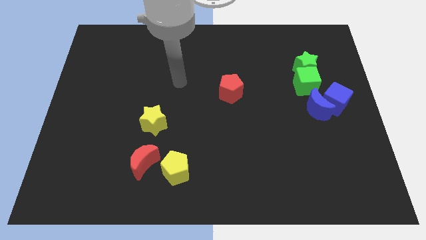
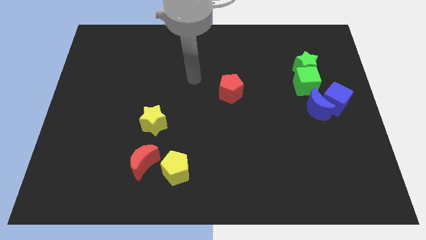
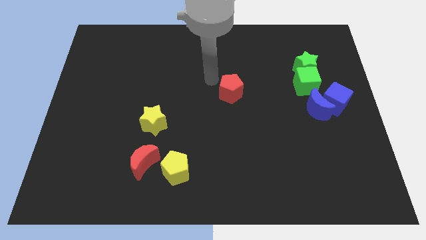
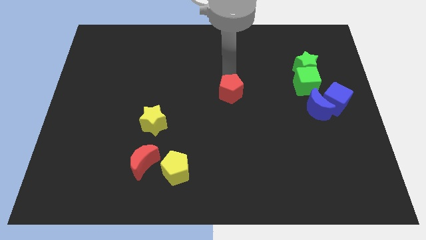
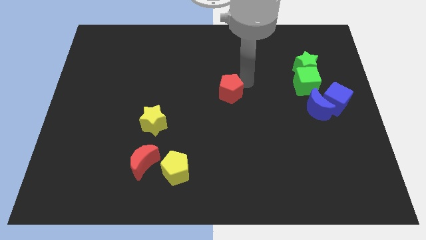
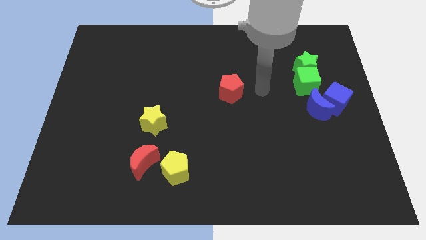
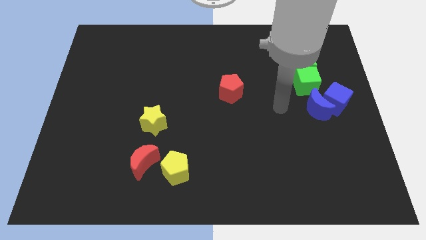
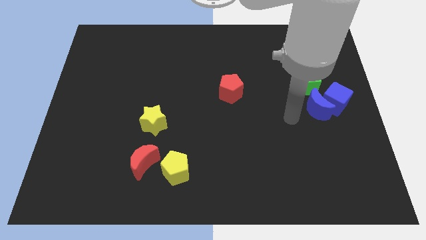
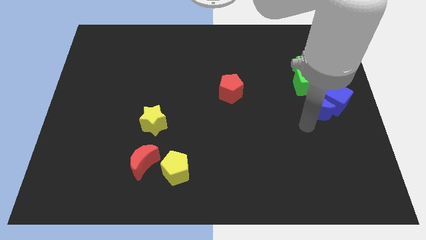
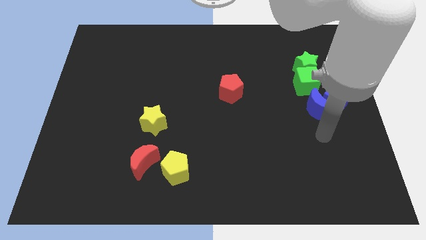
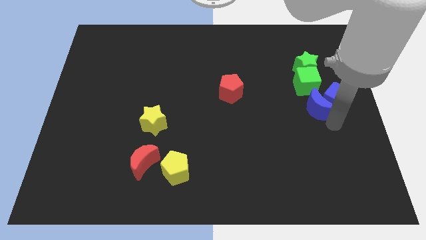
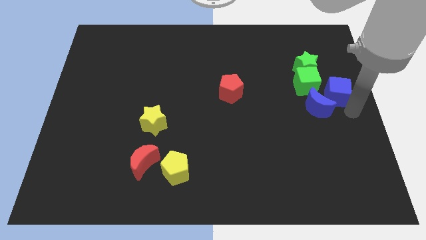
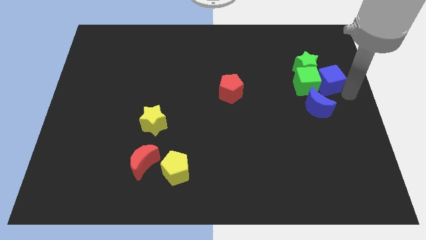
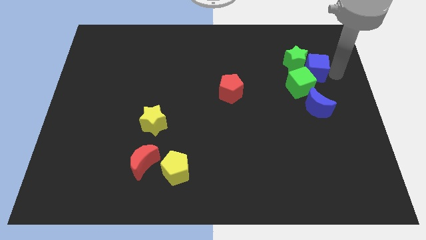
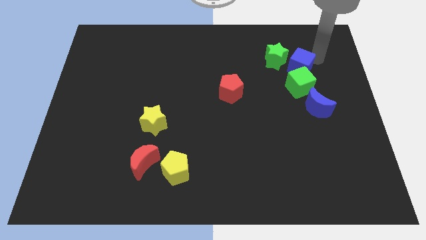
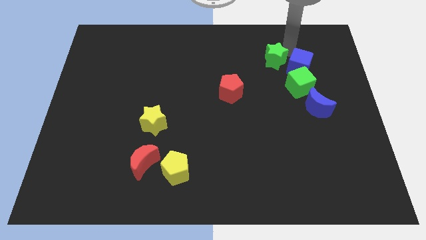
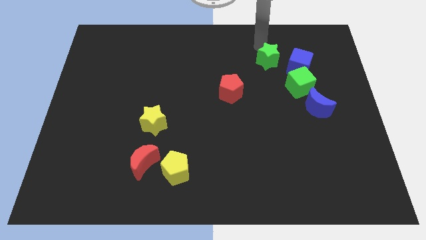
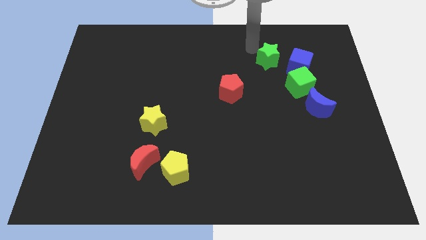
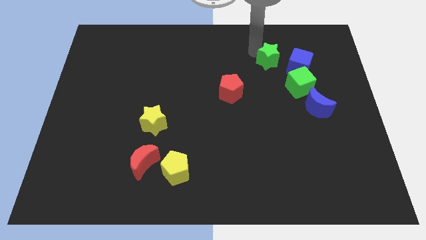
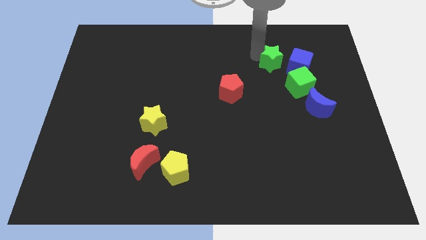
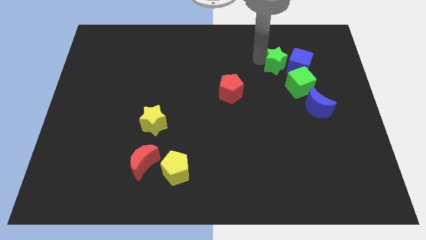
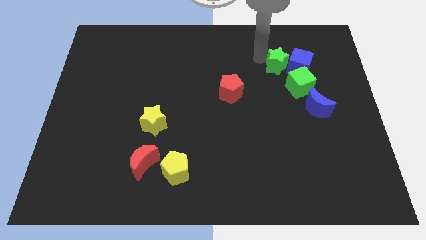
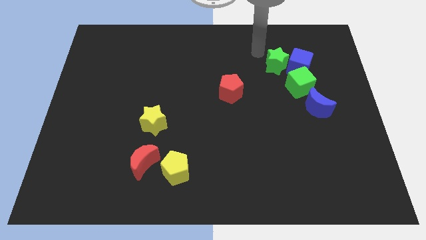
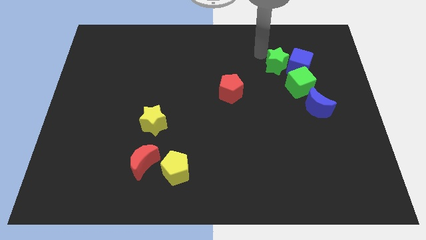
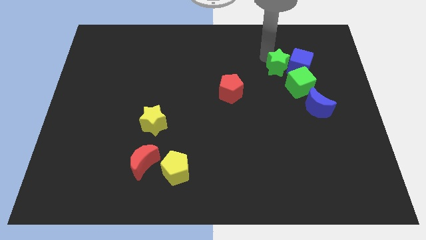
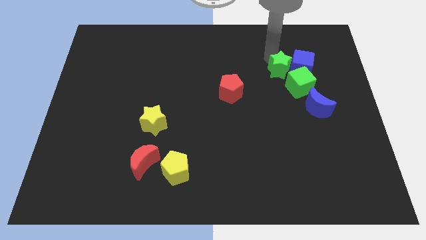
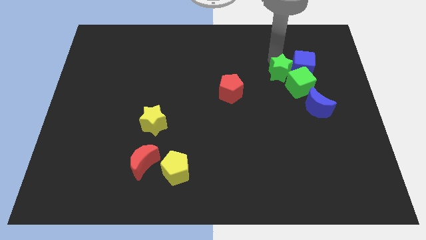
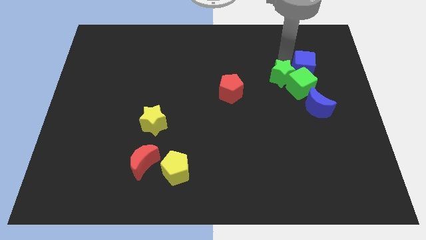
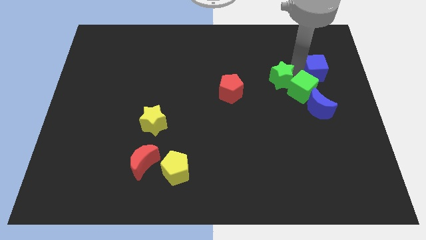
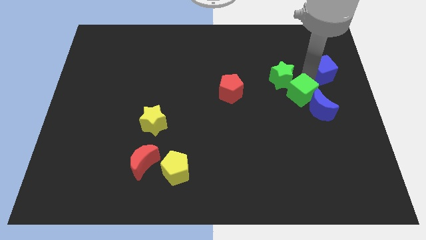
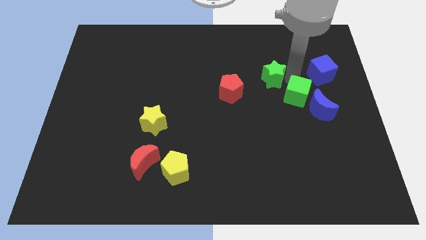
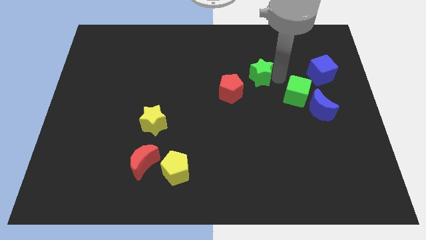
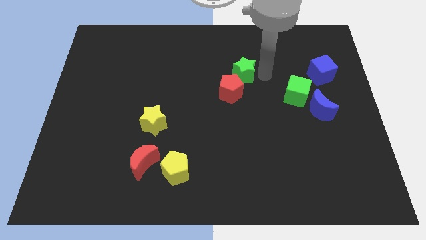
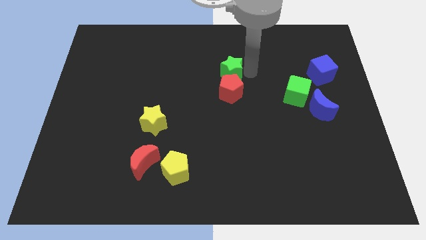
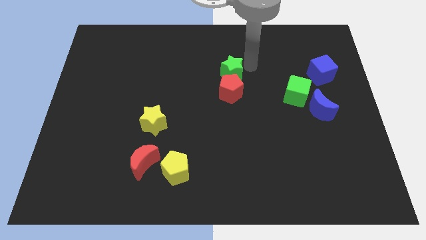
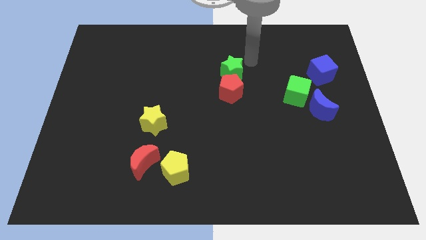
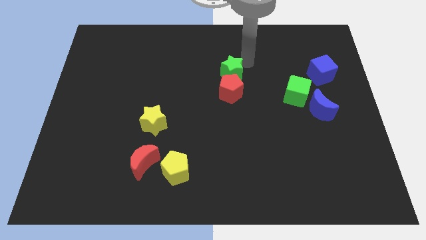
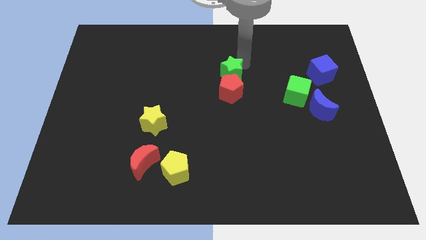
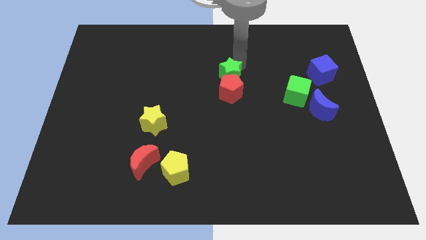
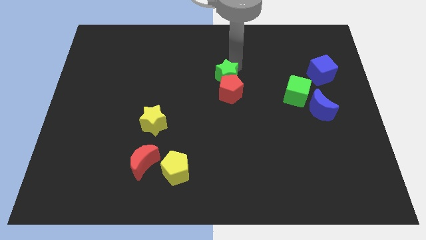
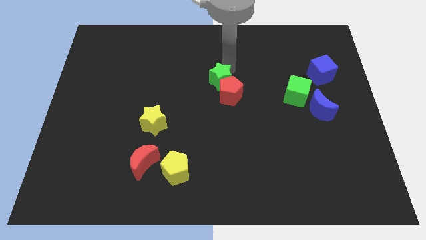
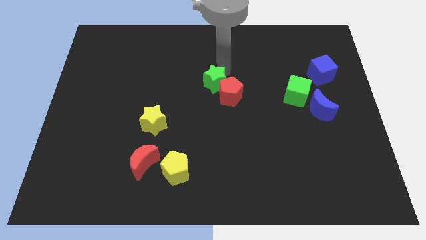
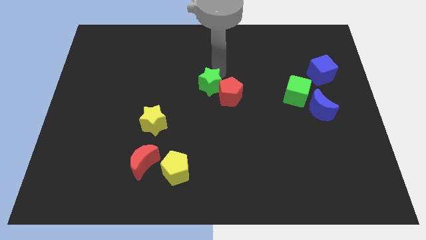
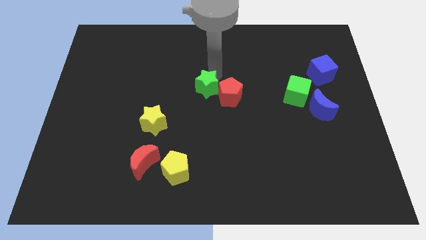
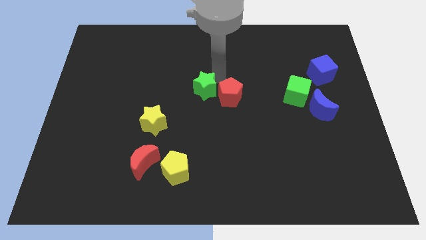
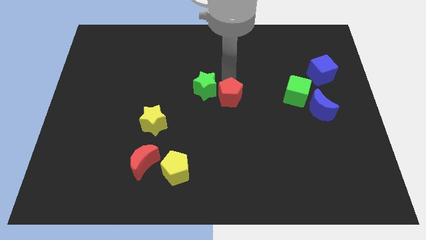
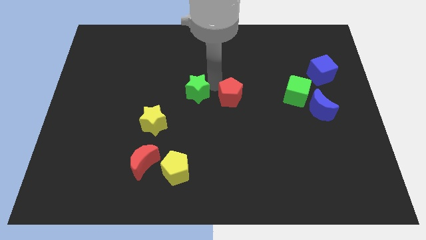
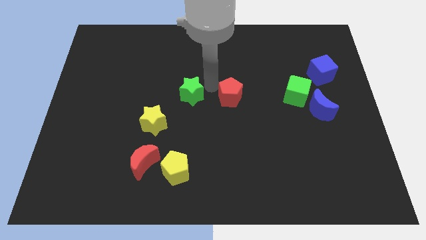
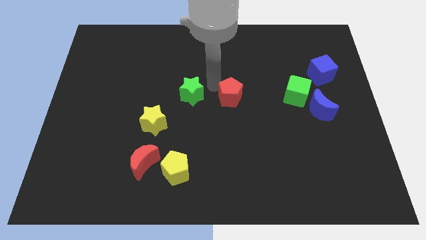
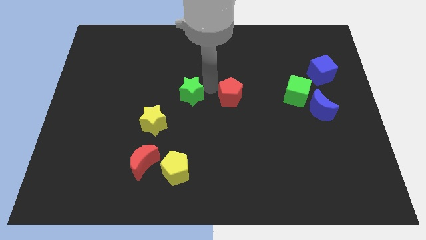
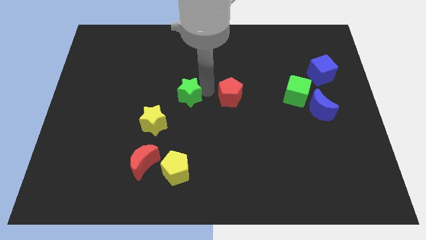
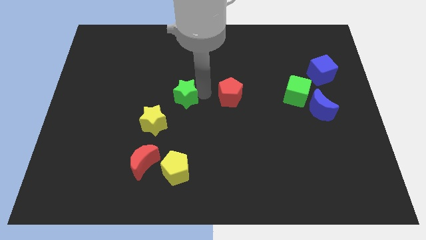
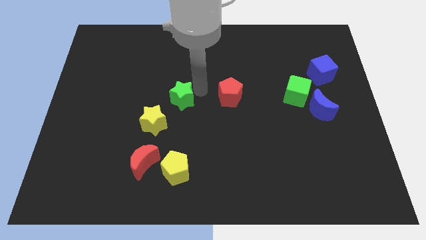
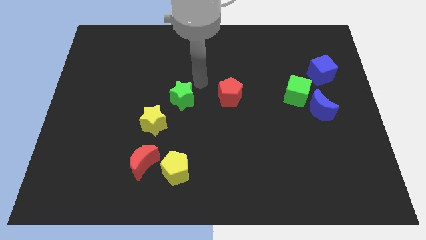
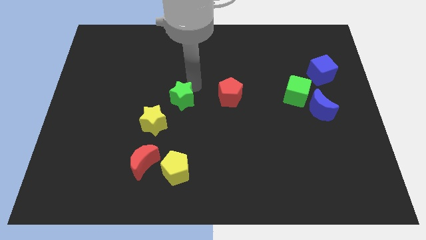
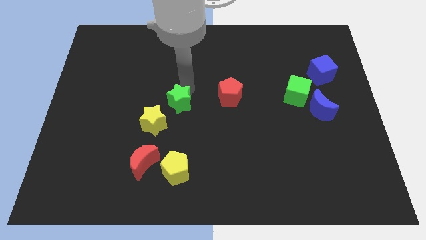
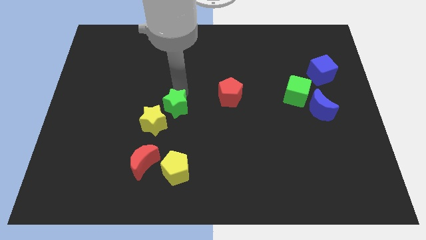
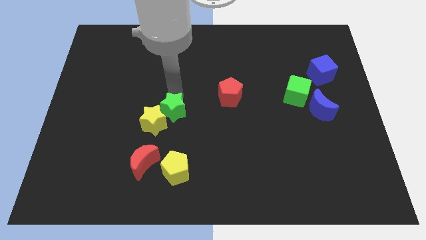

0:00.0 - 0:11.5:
slide the green star to the yellow star
